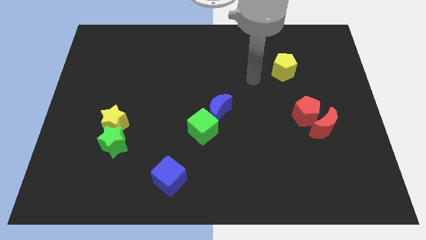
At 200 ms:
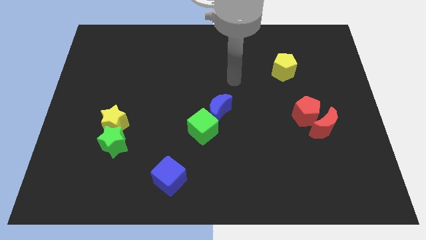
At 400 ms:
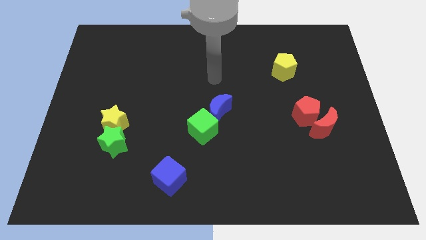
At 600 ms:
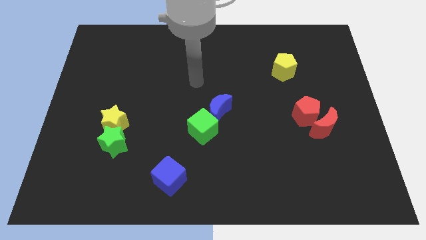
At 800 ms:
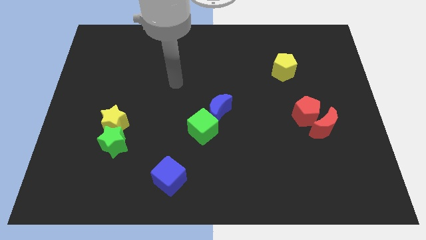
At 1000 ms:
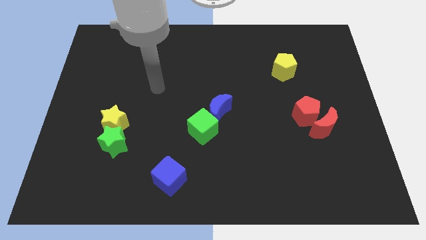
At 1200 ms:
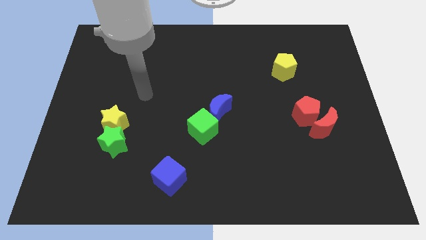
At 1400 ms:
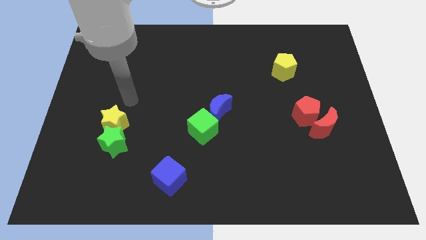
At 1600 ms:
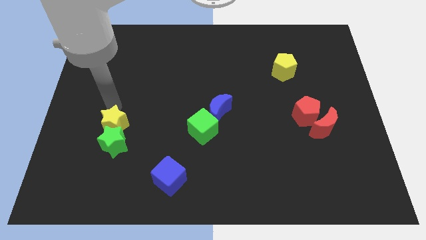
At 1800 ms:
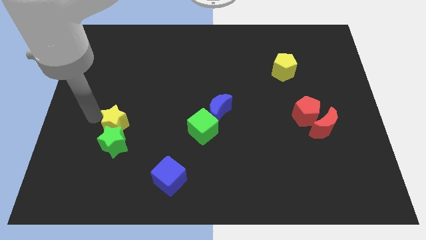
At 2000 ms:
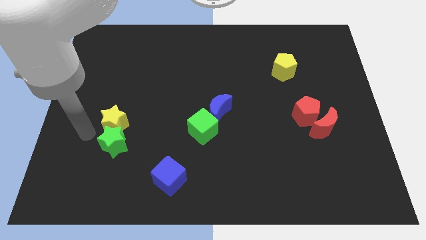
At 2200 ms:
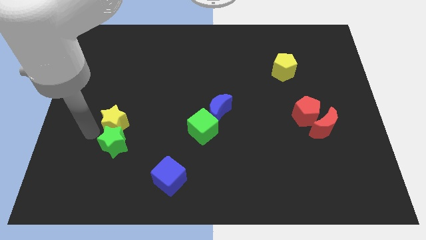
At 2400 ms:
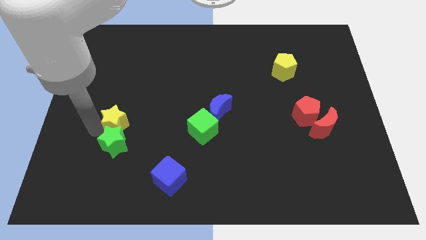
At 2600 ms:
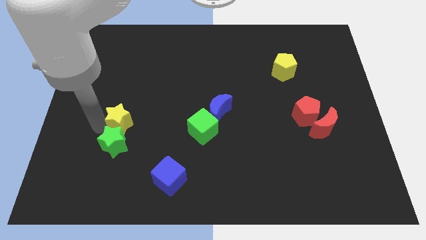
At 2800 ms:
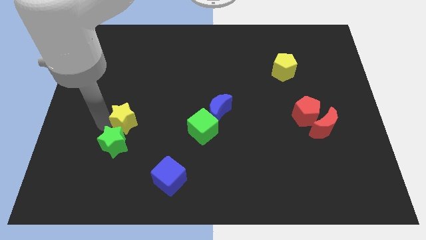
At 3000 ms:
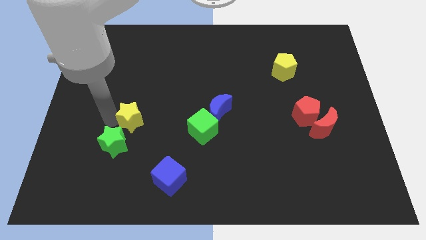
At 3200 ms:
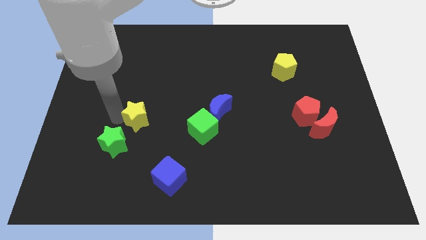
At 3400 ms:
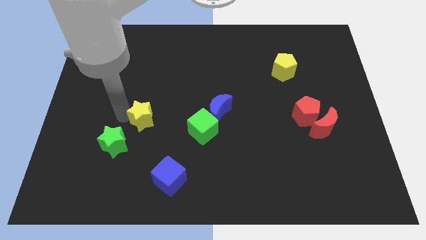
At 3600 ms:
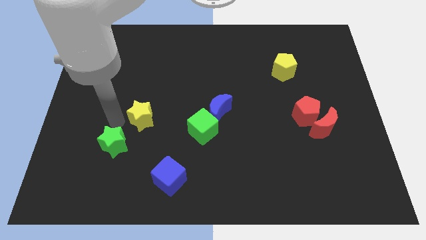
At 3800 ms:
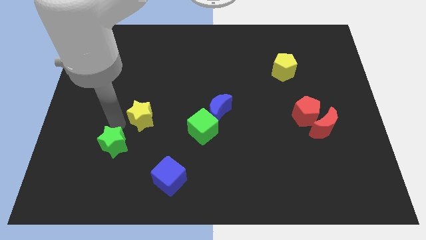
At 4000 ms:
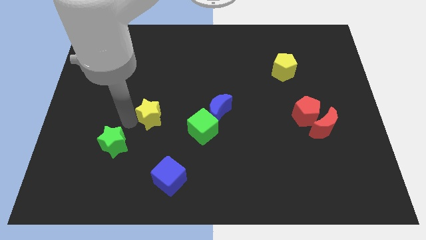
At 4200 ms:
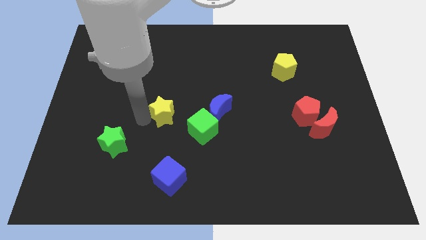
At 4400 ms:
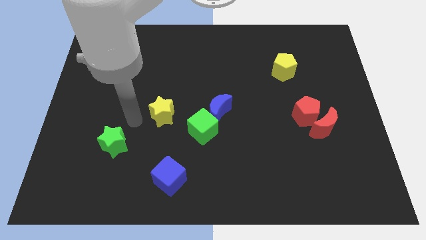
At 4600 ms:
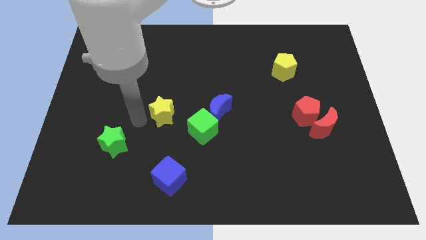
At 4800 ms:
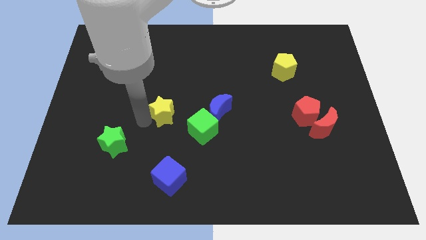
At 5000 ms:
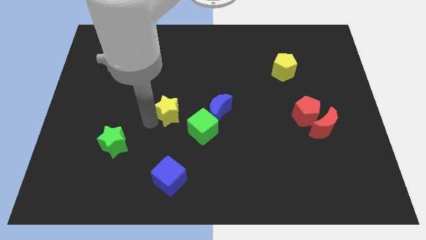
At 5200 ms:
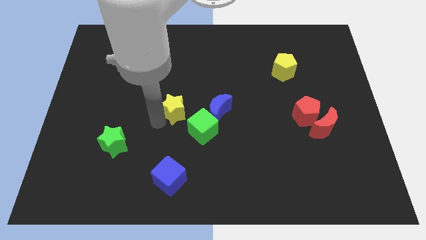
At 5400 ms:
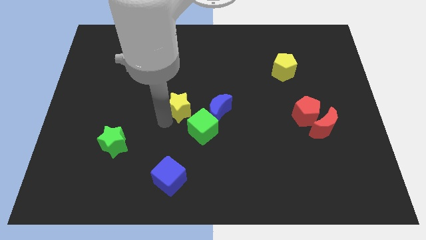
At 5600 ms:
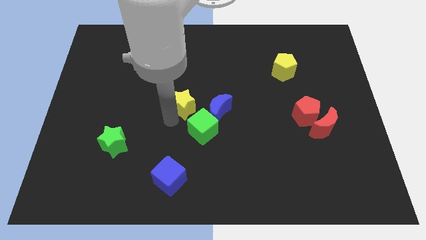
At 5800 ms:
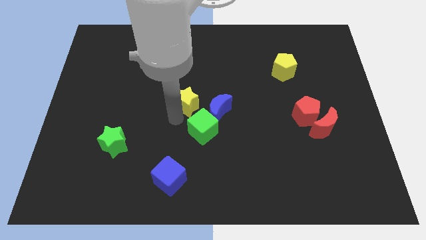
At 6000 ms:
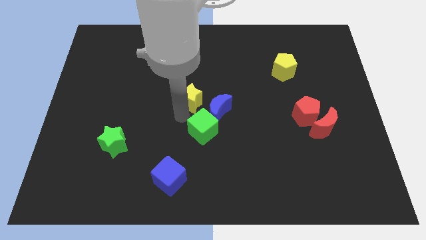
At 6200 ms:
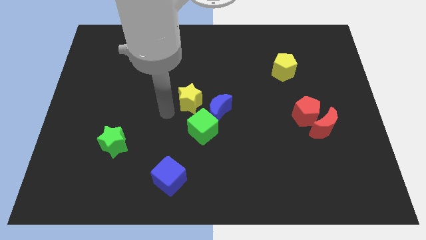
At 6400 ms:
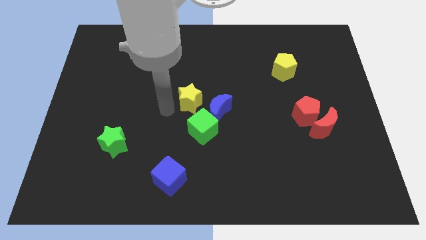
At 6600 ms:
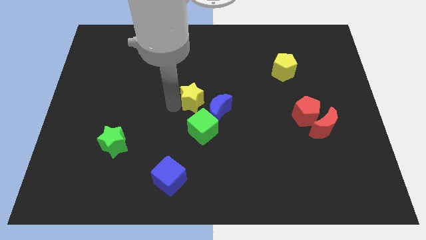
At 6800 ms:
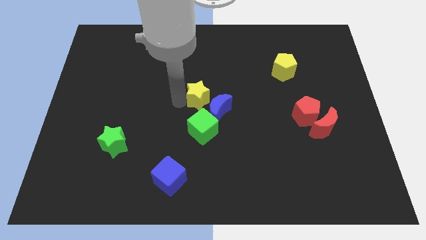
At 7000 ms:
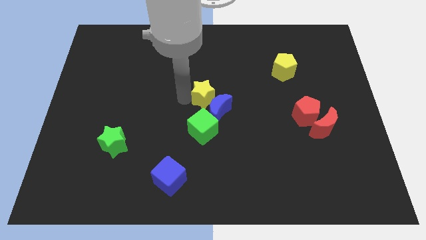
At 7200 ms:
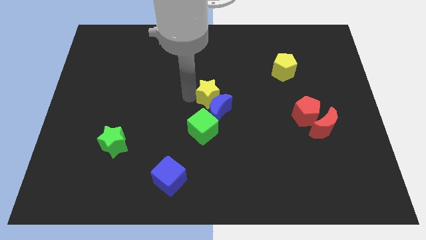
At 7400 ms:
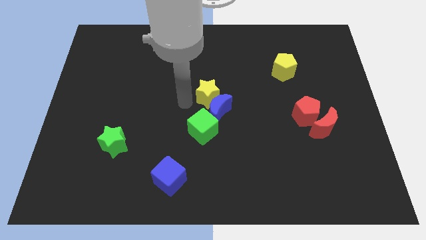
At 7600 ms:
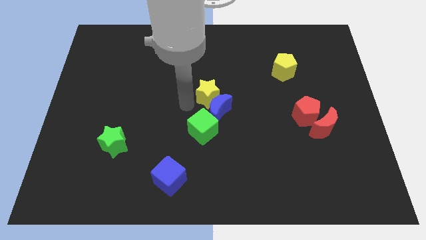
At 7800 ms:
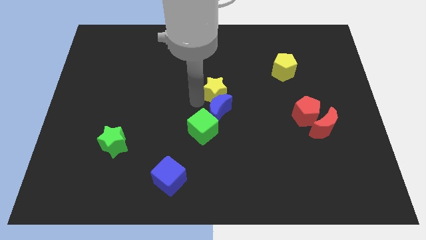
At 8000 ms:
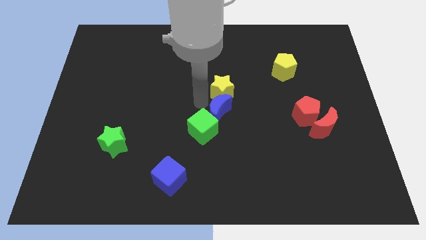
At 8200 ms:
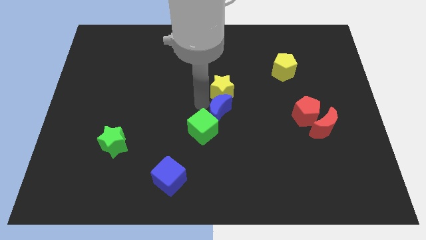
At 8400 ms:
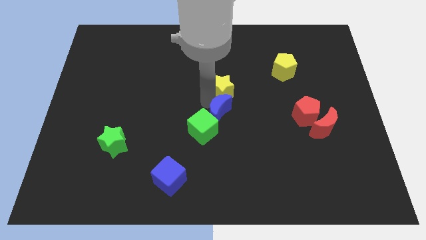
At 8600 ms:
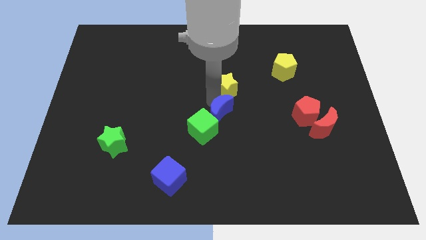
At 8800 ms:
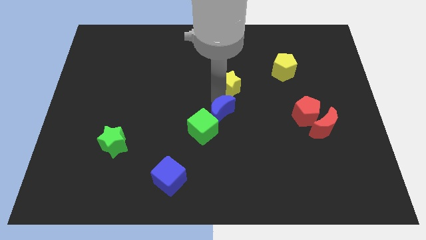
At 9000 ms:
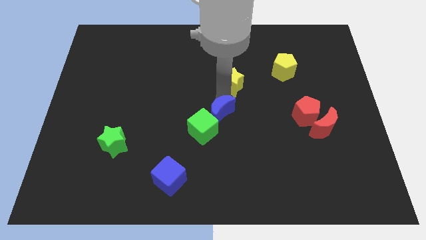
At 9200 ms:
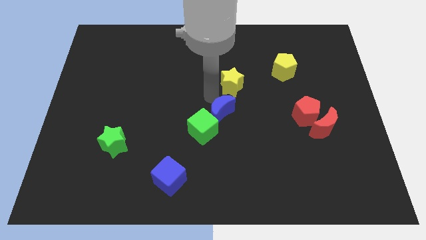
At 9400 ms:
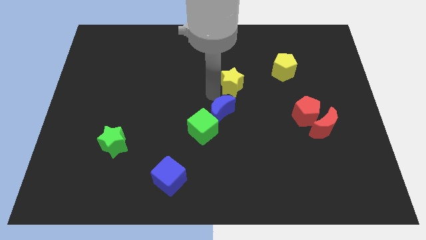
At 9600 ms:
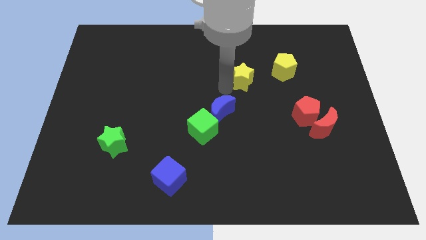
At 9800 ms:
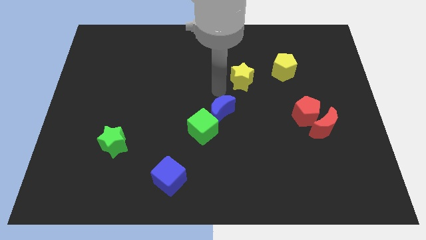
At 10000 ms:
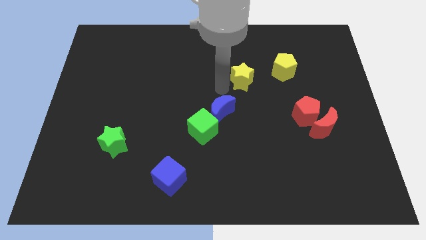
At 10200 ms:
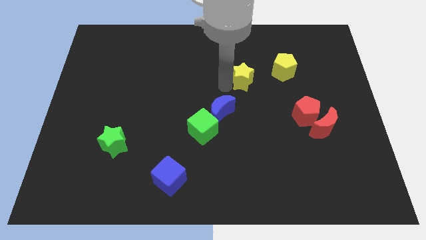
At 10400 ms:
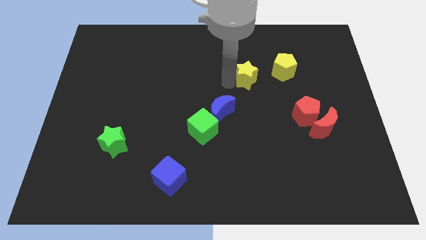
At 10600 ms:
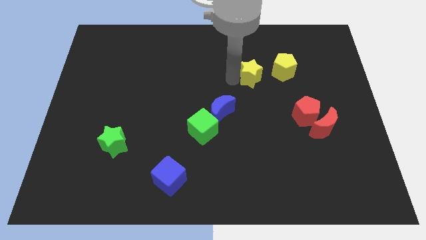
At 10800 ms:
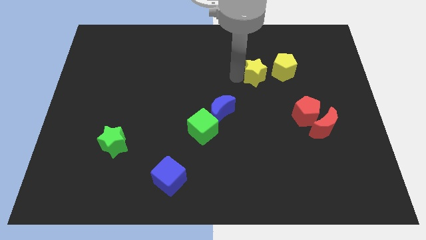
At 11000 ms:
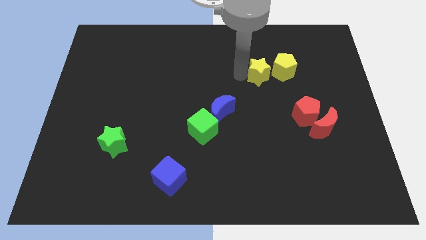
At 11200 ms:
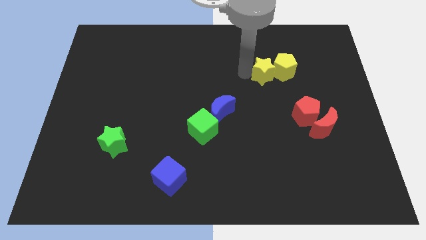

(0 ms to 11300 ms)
push the yellow star towards the yellow pentagon

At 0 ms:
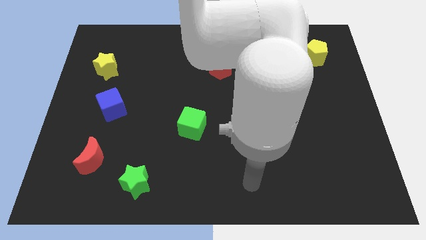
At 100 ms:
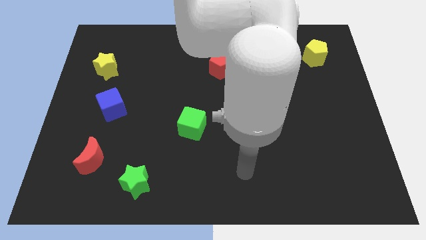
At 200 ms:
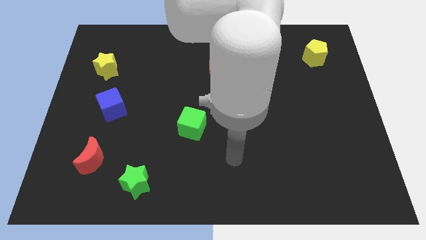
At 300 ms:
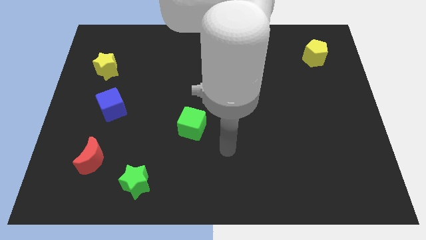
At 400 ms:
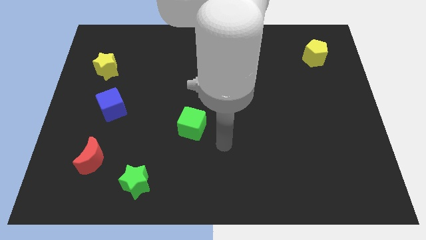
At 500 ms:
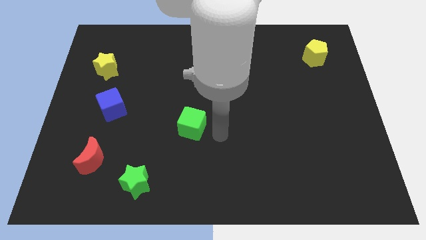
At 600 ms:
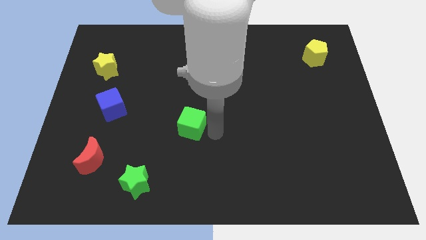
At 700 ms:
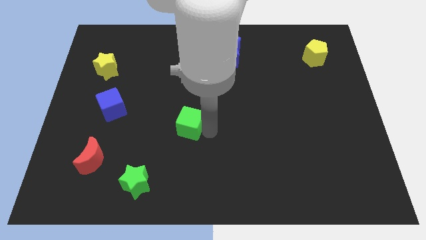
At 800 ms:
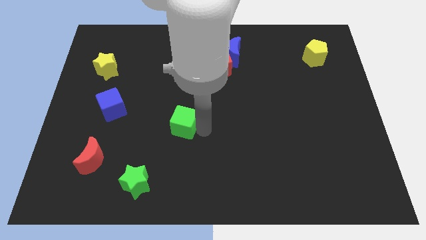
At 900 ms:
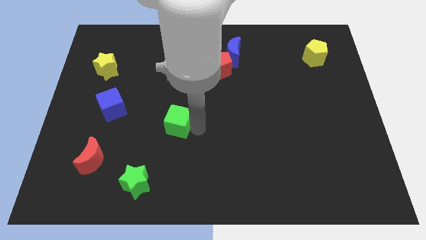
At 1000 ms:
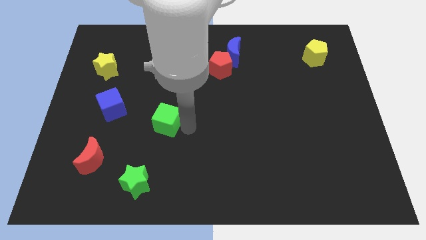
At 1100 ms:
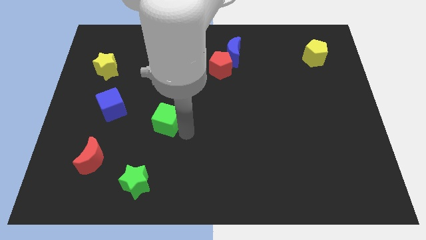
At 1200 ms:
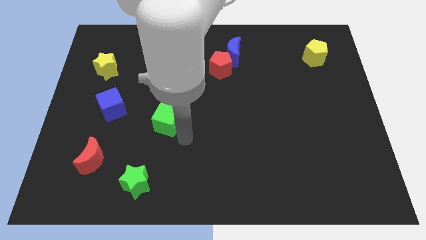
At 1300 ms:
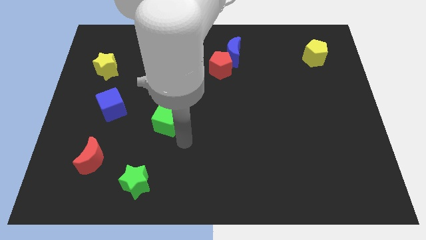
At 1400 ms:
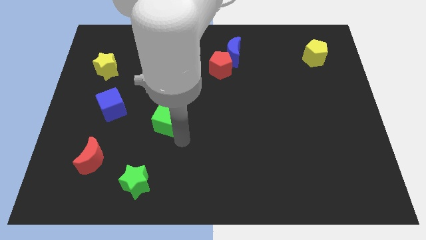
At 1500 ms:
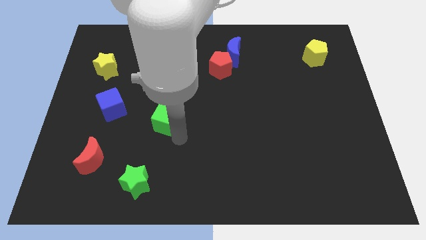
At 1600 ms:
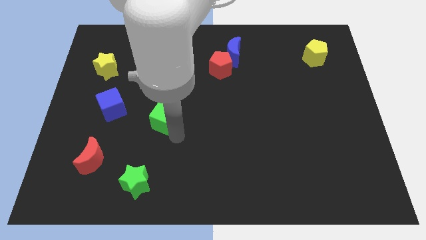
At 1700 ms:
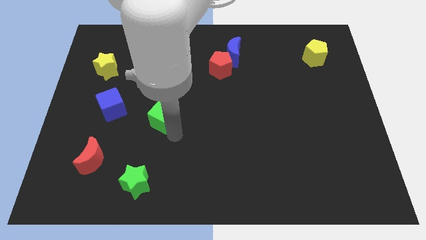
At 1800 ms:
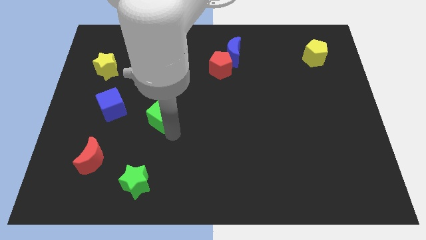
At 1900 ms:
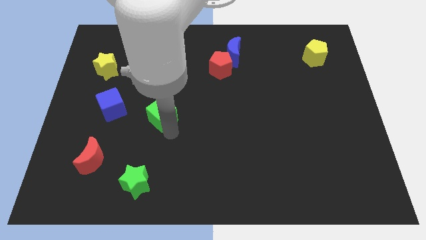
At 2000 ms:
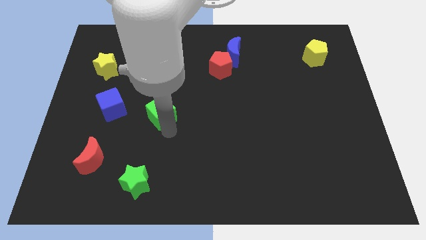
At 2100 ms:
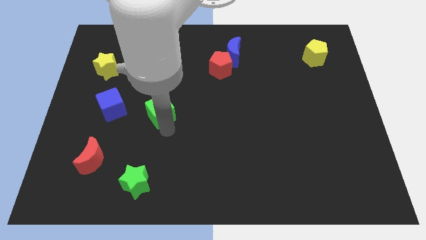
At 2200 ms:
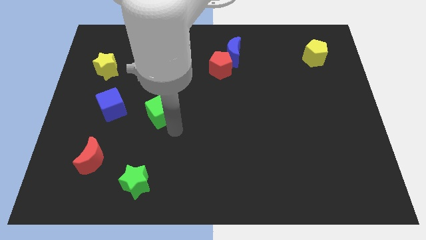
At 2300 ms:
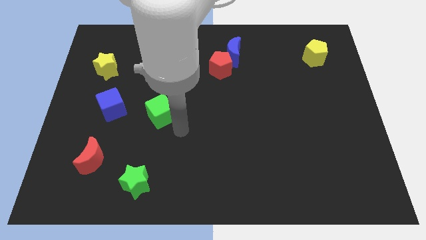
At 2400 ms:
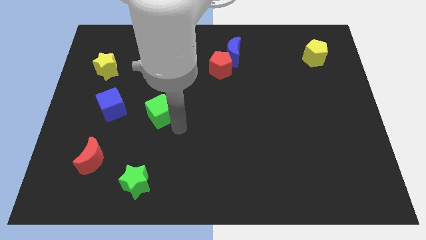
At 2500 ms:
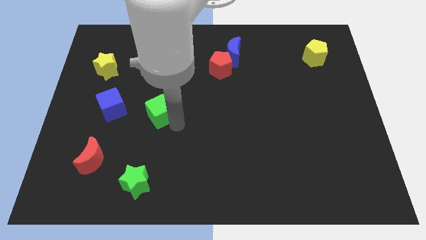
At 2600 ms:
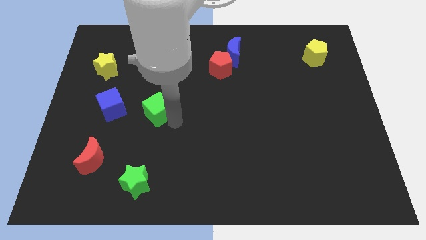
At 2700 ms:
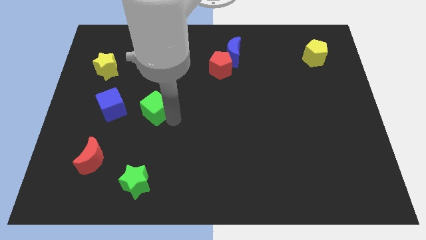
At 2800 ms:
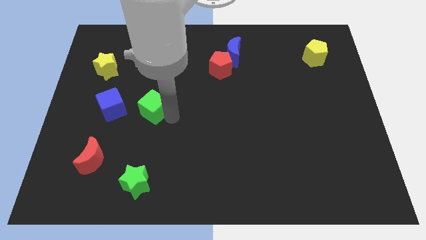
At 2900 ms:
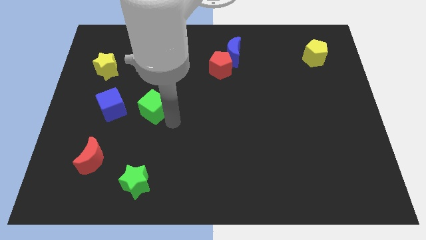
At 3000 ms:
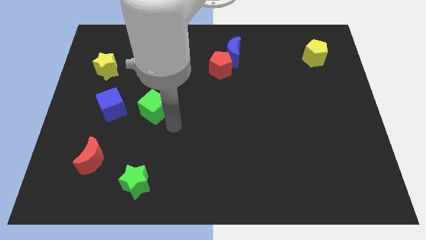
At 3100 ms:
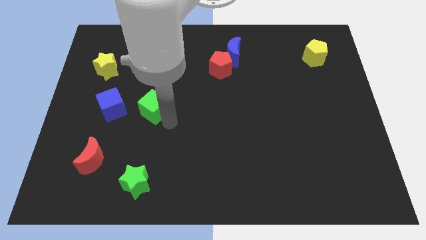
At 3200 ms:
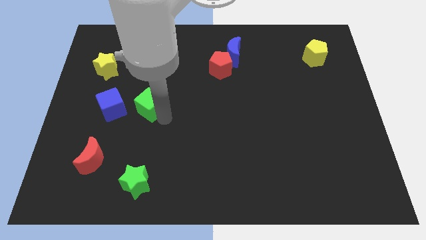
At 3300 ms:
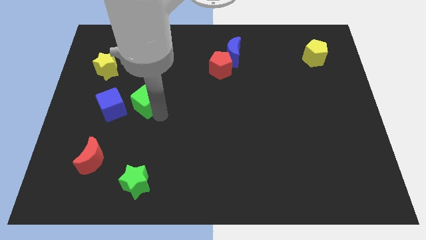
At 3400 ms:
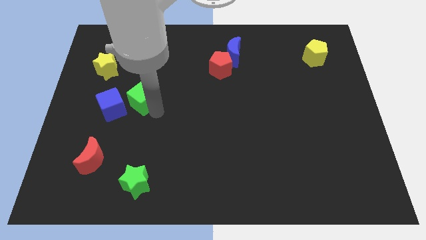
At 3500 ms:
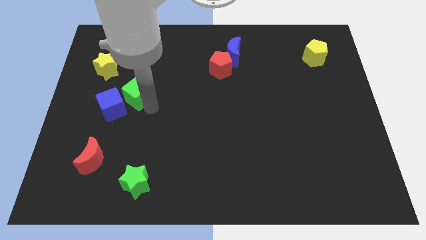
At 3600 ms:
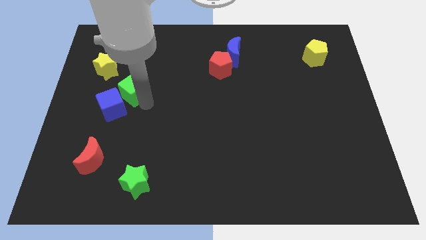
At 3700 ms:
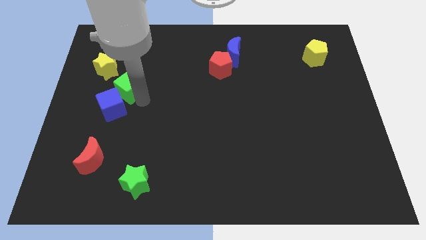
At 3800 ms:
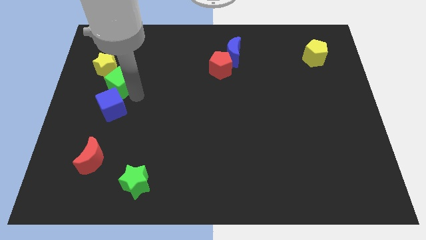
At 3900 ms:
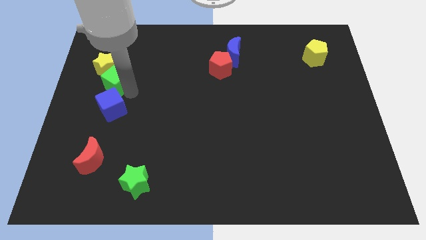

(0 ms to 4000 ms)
move the green cube close to the yellow star
